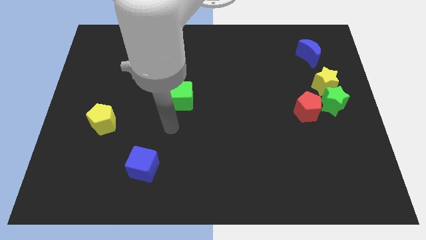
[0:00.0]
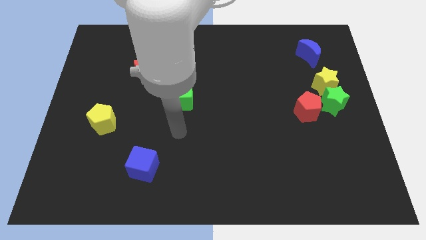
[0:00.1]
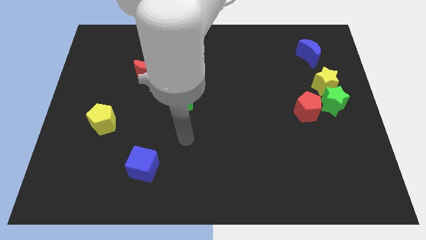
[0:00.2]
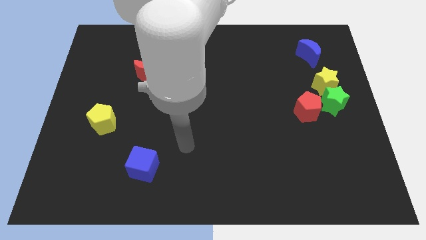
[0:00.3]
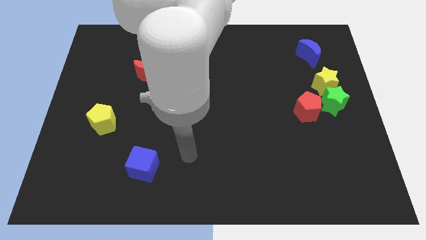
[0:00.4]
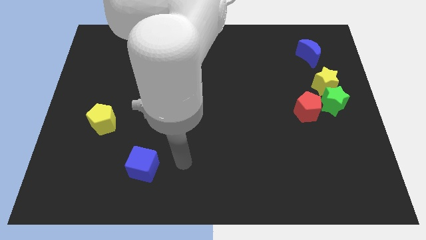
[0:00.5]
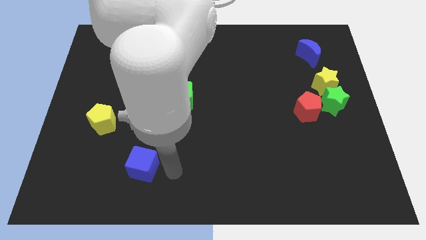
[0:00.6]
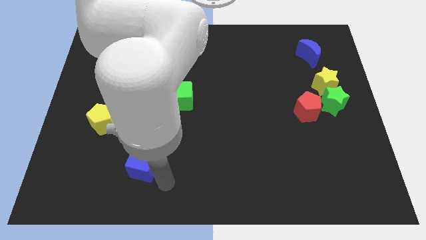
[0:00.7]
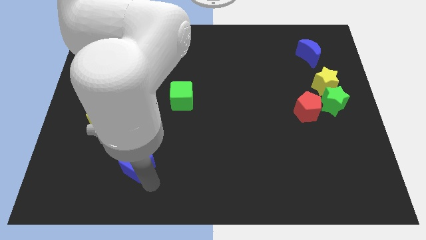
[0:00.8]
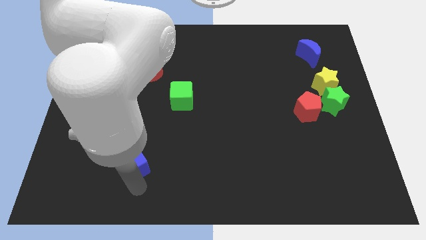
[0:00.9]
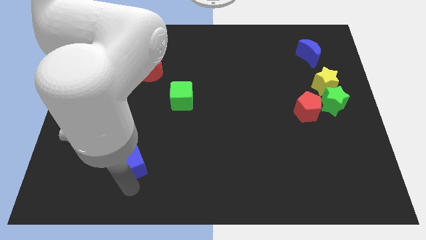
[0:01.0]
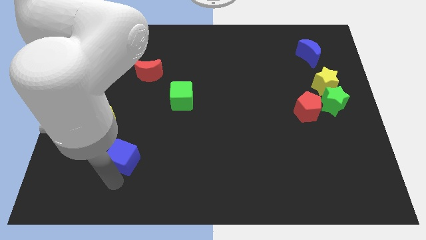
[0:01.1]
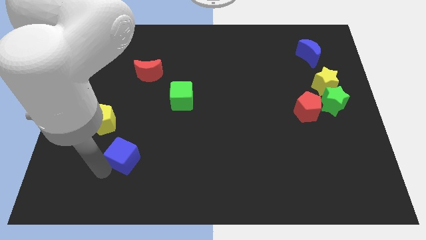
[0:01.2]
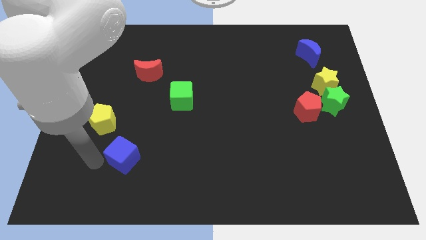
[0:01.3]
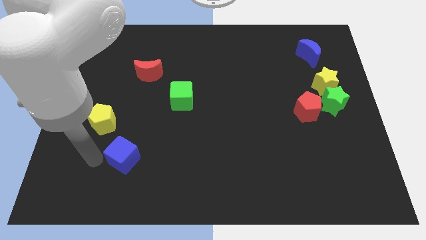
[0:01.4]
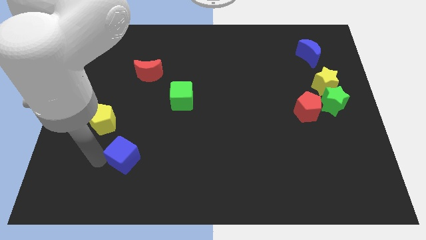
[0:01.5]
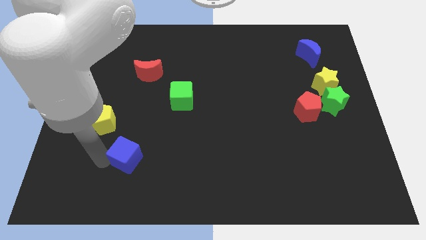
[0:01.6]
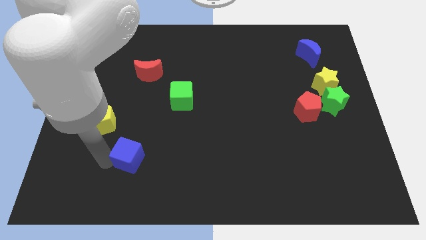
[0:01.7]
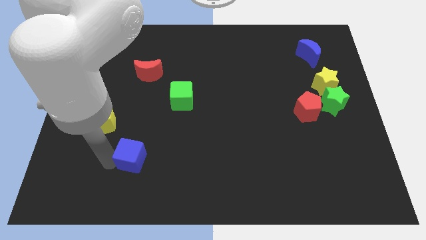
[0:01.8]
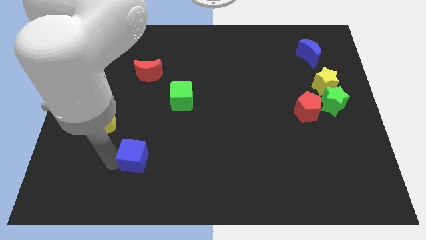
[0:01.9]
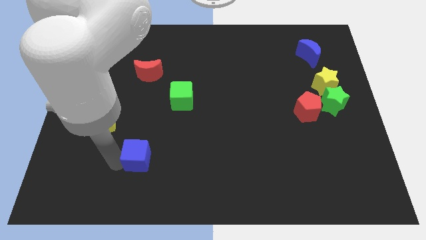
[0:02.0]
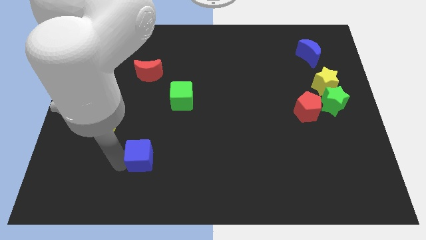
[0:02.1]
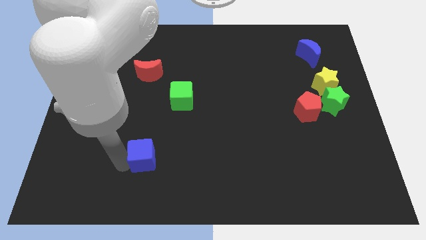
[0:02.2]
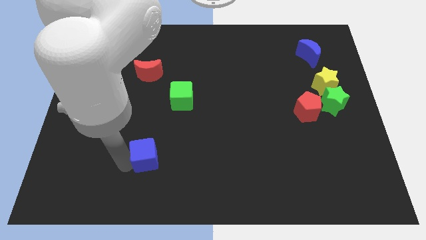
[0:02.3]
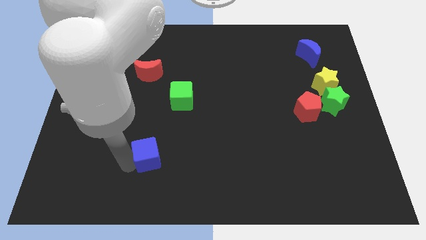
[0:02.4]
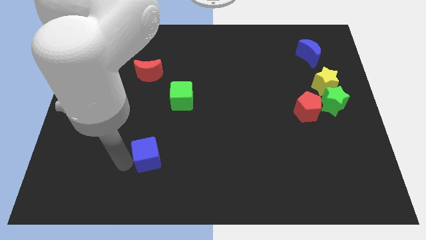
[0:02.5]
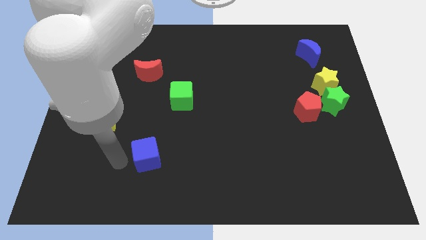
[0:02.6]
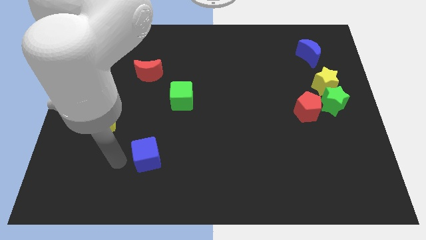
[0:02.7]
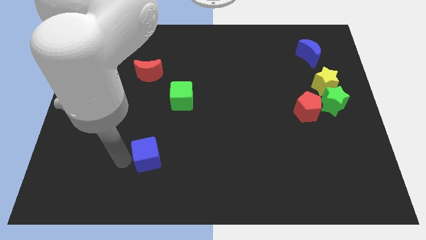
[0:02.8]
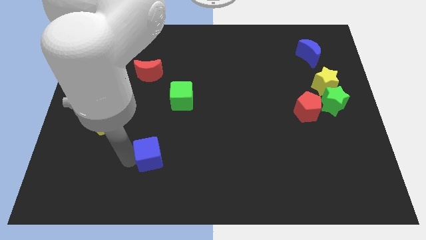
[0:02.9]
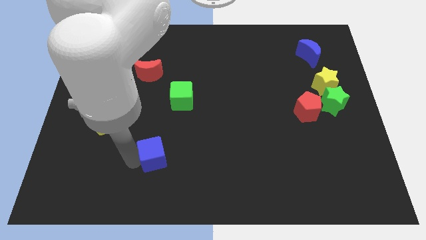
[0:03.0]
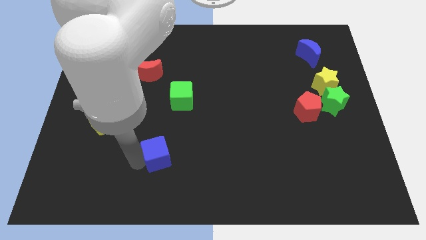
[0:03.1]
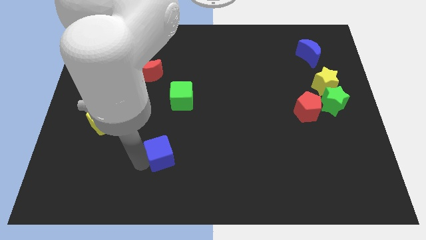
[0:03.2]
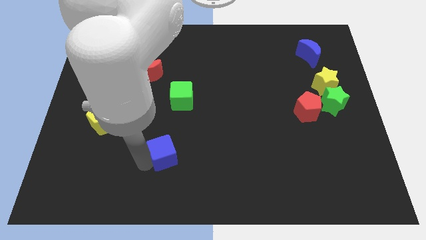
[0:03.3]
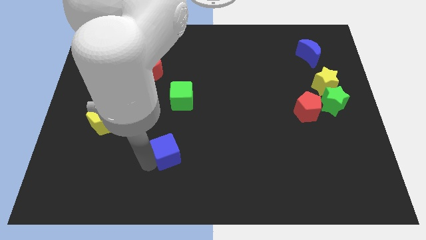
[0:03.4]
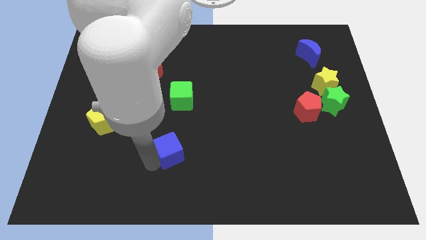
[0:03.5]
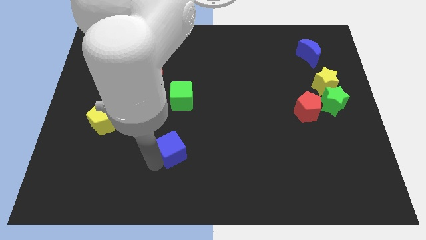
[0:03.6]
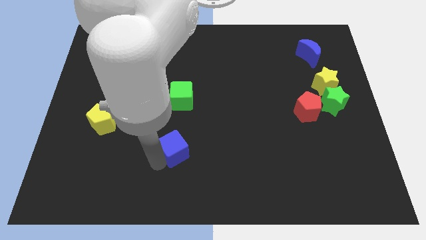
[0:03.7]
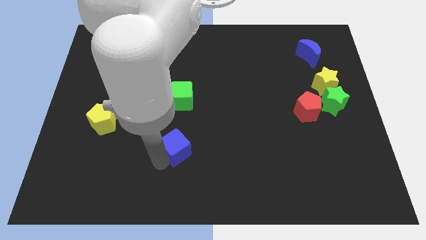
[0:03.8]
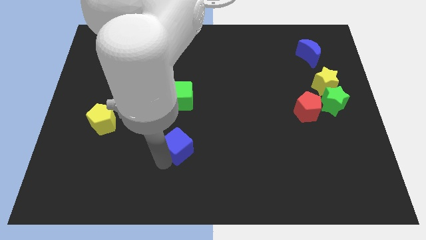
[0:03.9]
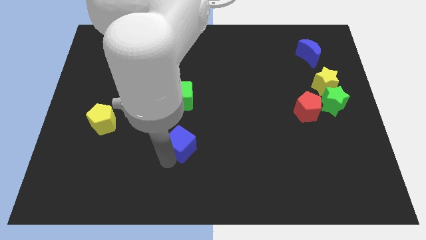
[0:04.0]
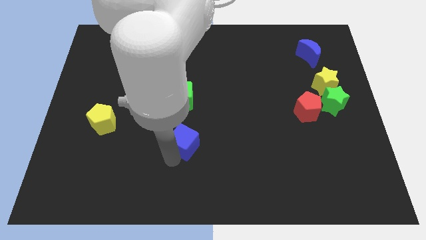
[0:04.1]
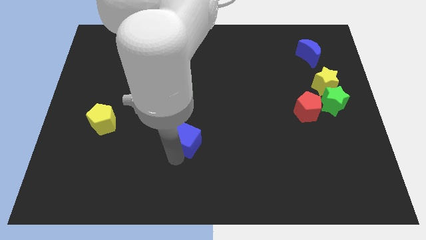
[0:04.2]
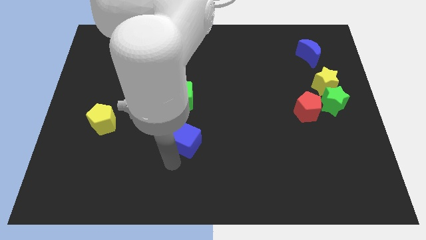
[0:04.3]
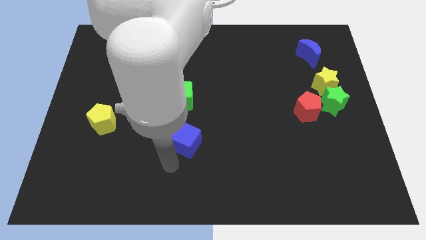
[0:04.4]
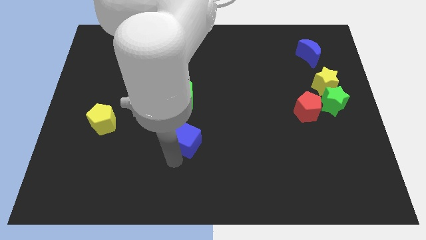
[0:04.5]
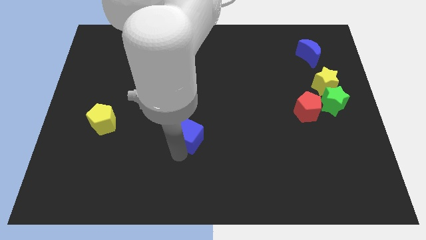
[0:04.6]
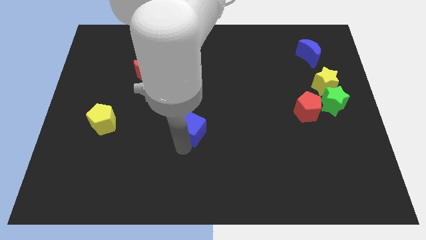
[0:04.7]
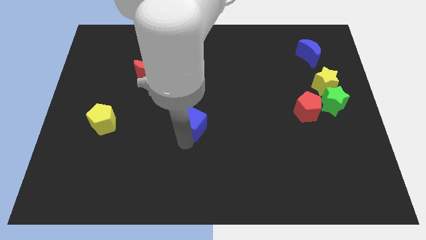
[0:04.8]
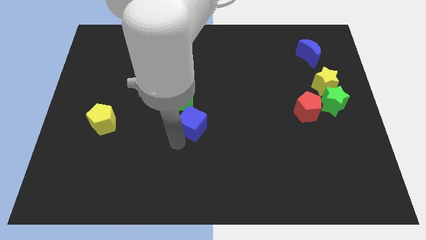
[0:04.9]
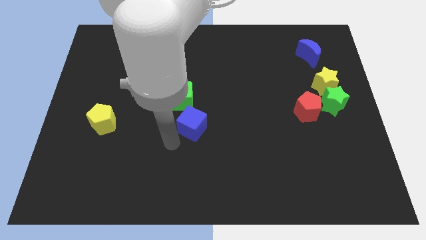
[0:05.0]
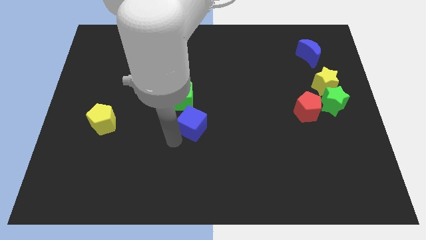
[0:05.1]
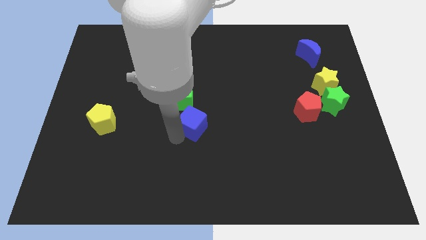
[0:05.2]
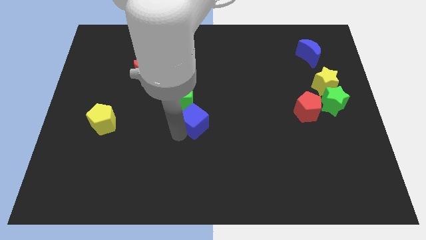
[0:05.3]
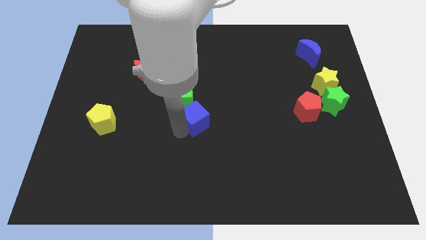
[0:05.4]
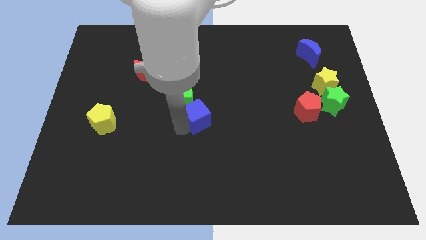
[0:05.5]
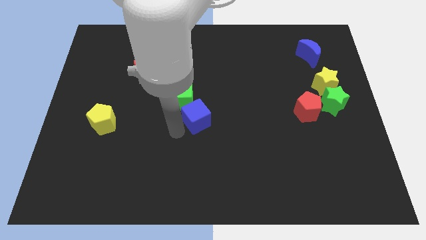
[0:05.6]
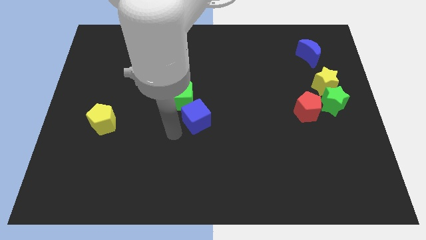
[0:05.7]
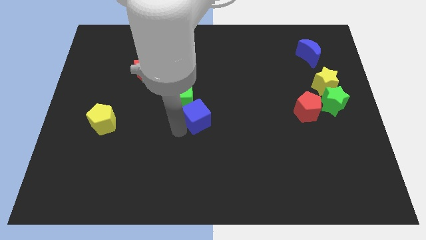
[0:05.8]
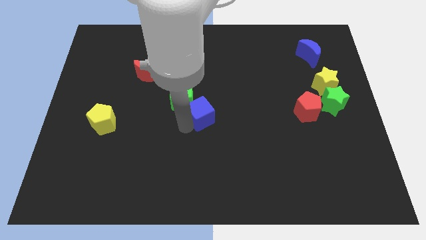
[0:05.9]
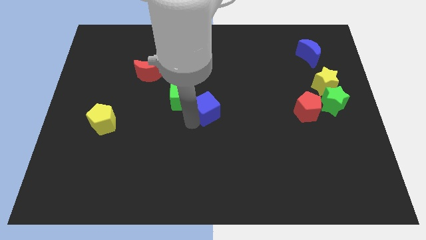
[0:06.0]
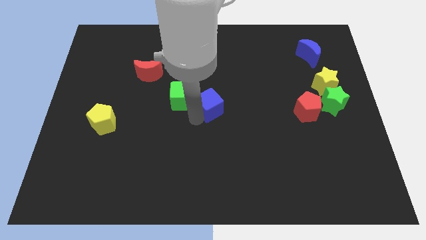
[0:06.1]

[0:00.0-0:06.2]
slide the blue cube up and right diagonally

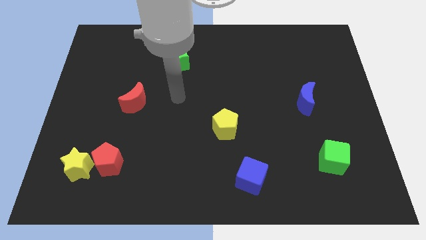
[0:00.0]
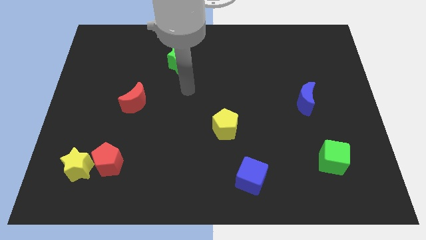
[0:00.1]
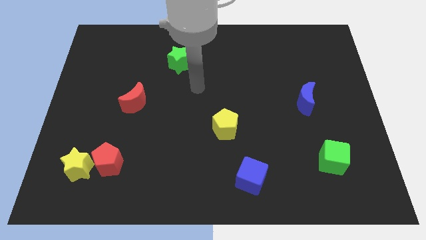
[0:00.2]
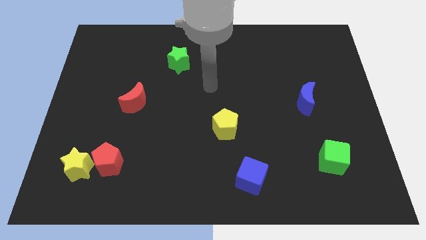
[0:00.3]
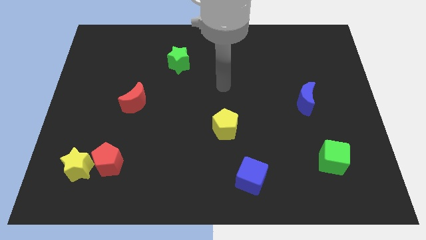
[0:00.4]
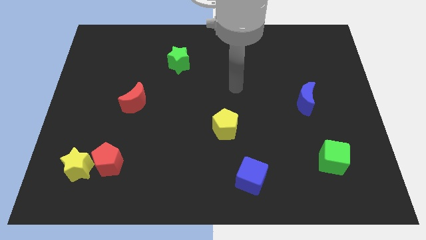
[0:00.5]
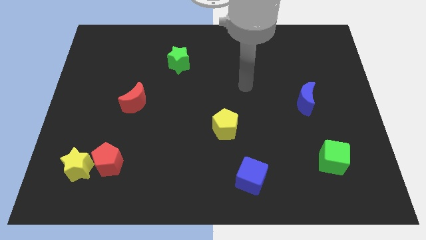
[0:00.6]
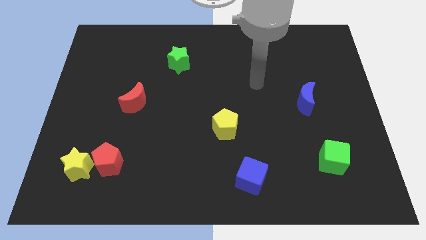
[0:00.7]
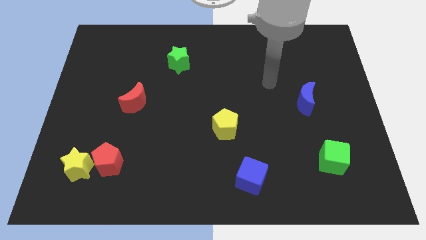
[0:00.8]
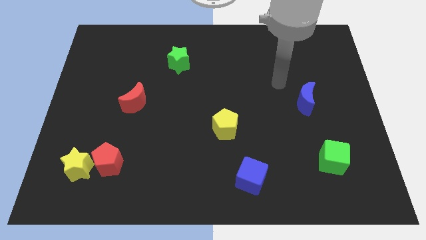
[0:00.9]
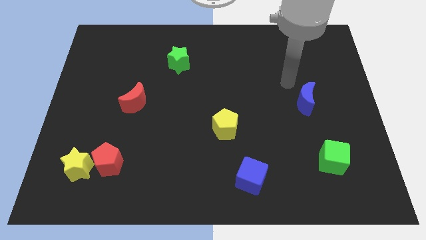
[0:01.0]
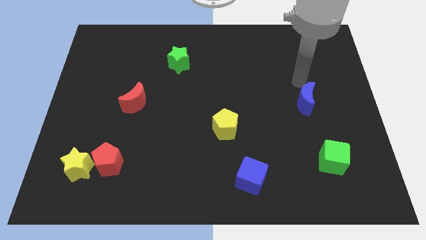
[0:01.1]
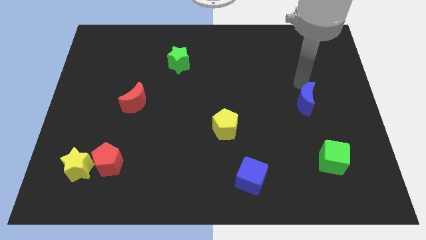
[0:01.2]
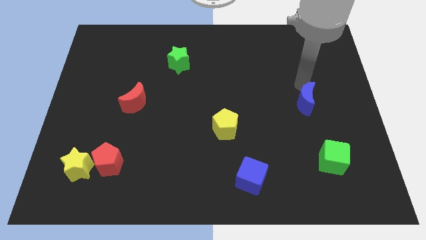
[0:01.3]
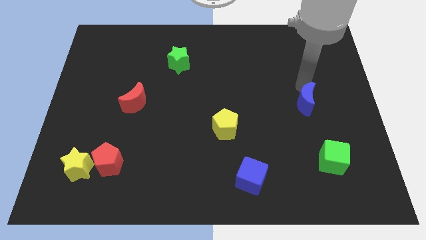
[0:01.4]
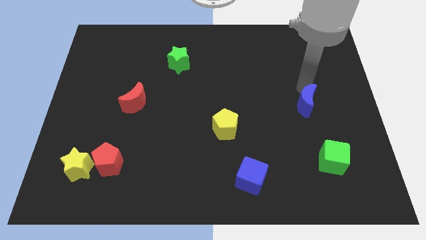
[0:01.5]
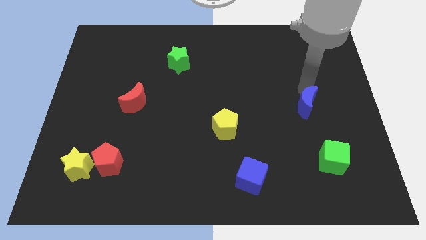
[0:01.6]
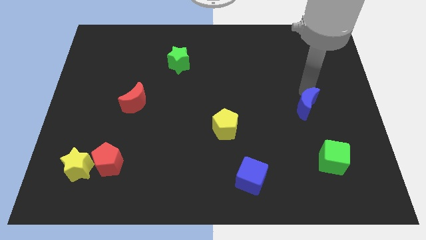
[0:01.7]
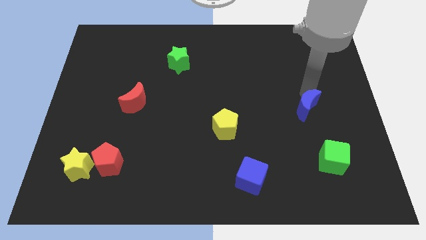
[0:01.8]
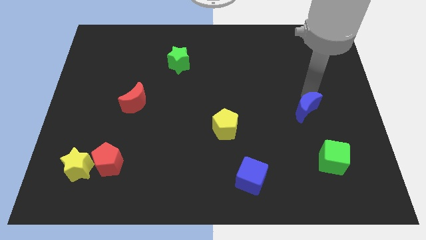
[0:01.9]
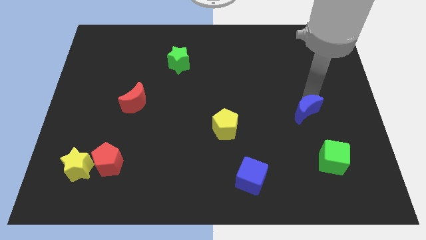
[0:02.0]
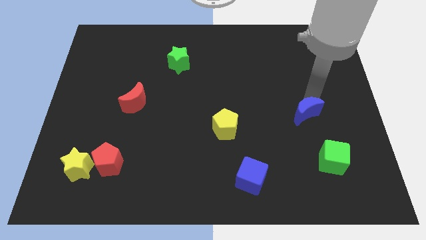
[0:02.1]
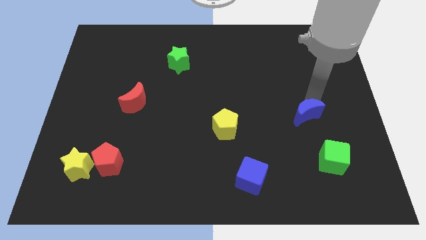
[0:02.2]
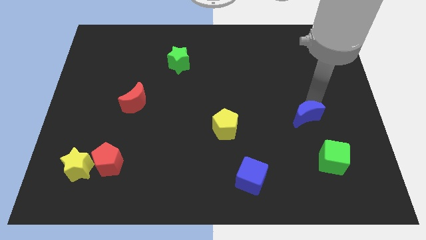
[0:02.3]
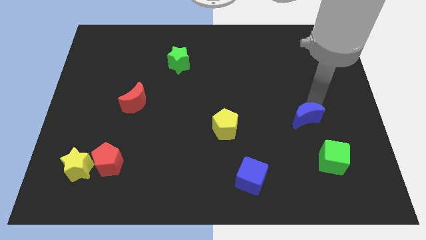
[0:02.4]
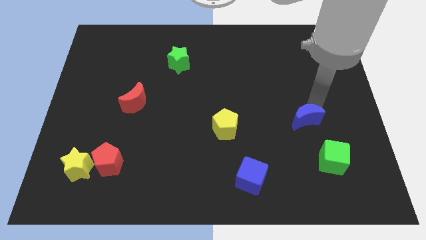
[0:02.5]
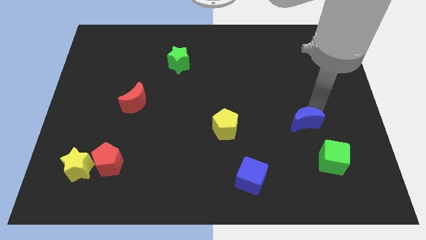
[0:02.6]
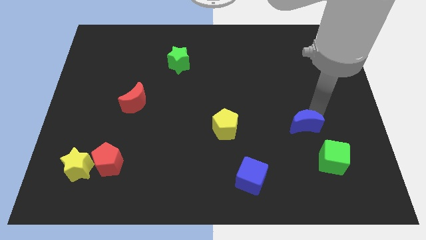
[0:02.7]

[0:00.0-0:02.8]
slightly move the blue moon down
